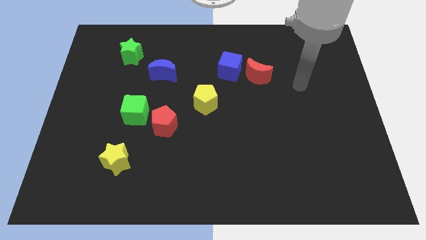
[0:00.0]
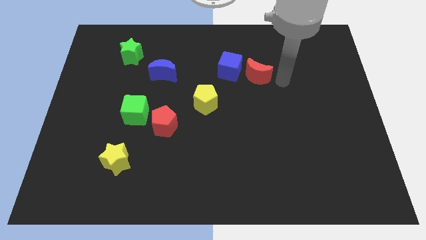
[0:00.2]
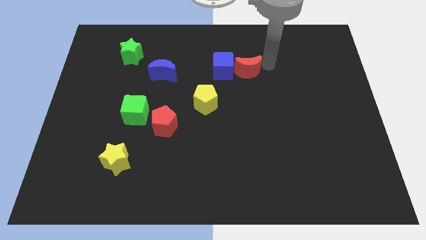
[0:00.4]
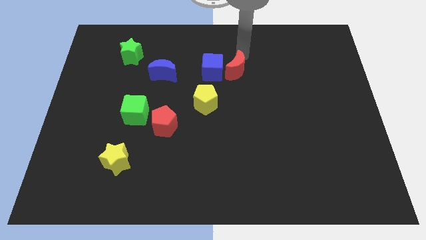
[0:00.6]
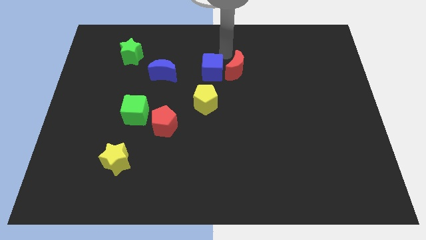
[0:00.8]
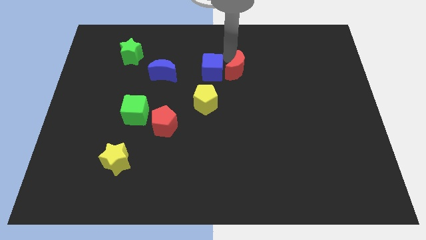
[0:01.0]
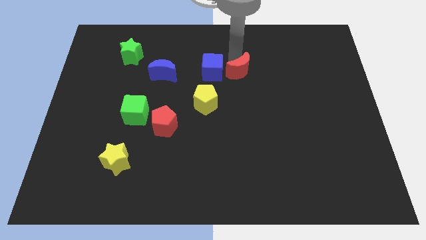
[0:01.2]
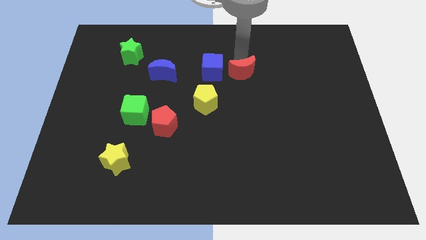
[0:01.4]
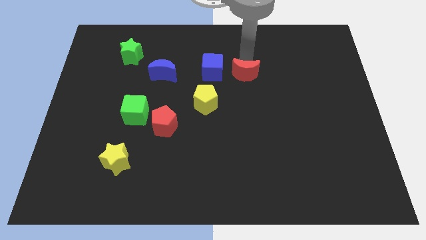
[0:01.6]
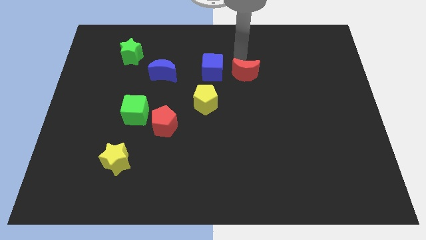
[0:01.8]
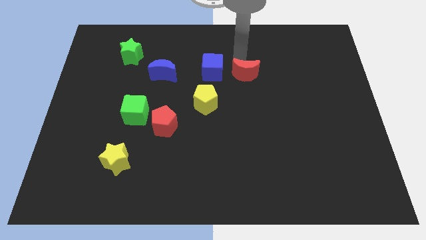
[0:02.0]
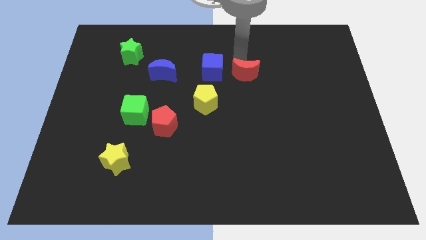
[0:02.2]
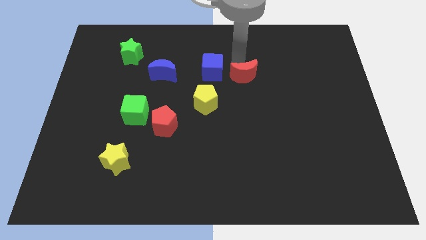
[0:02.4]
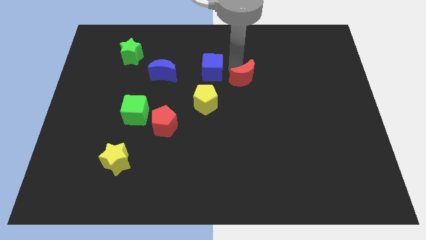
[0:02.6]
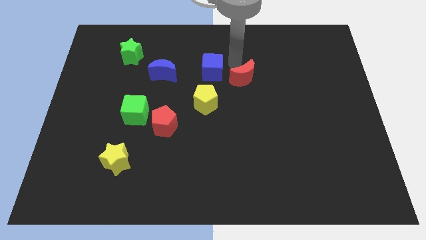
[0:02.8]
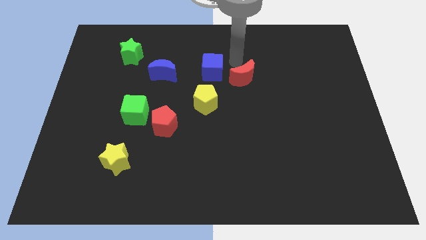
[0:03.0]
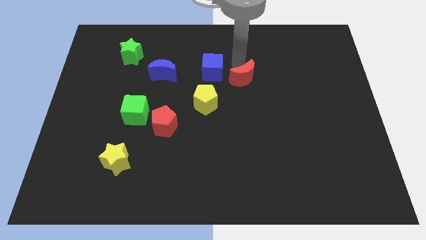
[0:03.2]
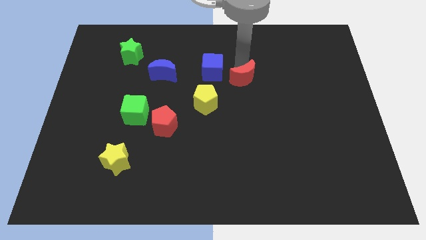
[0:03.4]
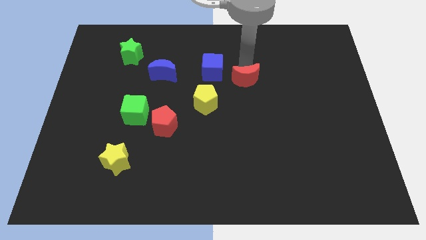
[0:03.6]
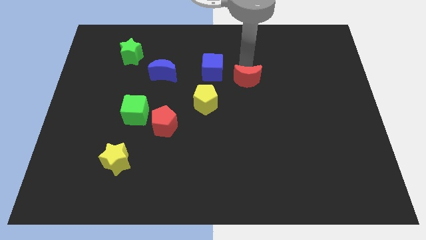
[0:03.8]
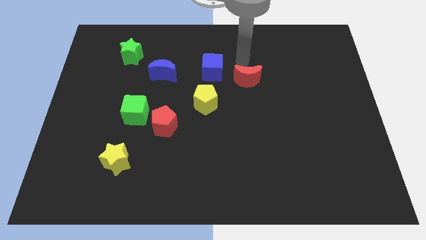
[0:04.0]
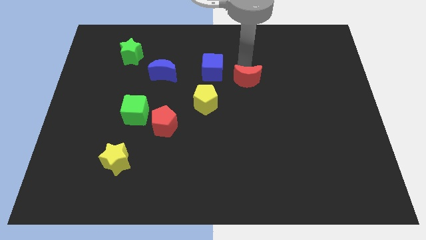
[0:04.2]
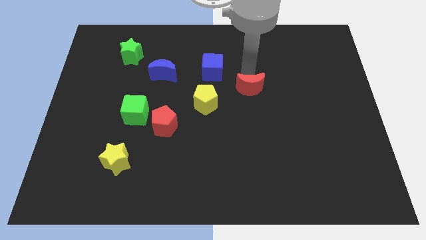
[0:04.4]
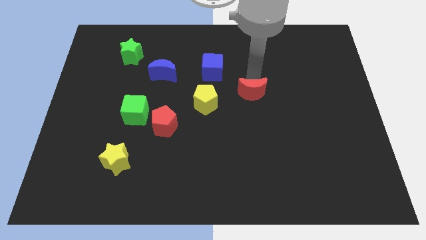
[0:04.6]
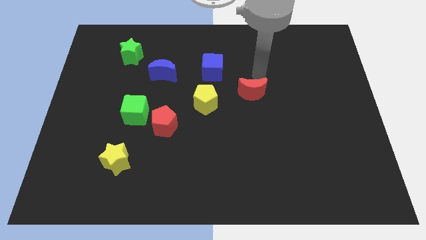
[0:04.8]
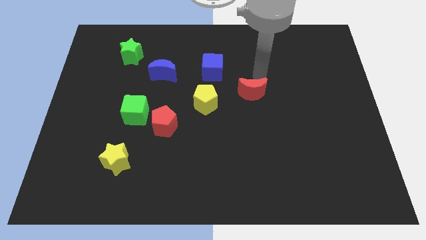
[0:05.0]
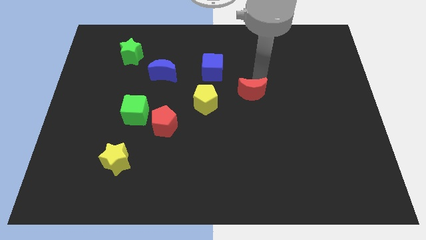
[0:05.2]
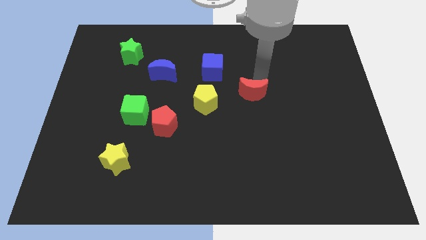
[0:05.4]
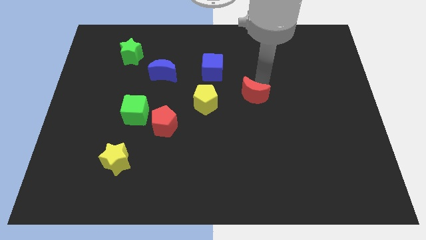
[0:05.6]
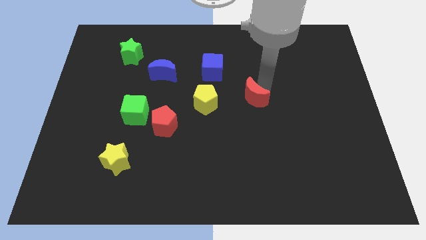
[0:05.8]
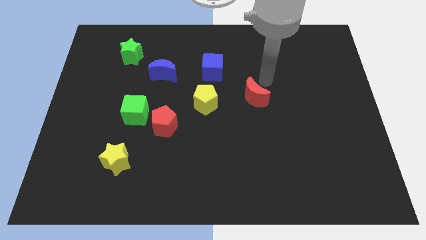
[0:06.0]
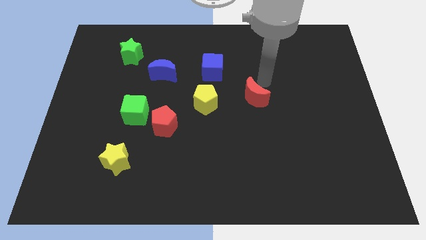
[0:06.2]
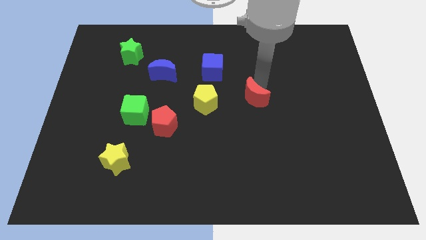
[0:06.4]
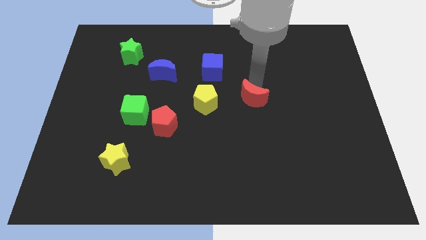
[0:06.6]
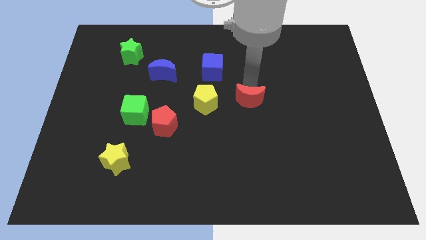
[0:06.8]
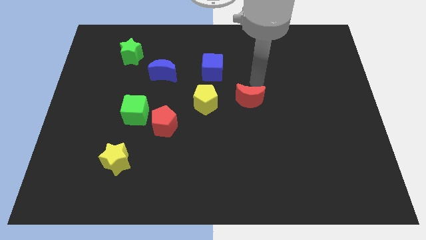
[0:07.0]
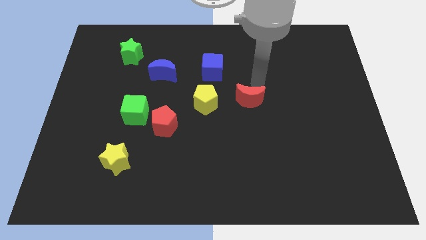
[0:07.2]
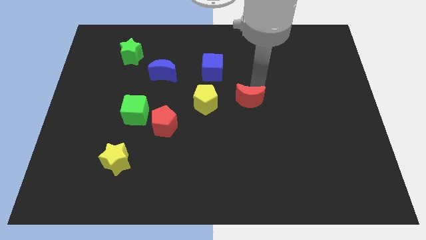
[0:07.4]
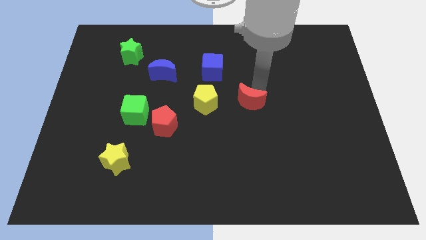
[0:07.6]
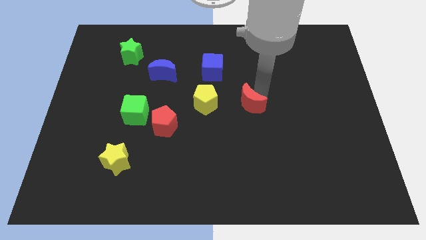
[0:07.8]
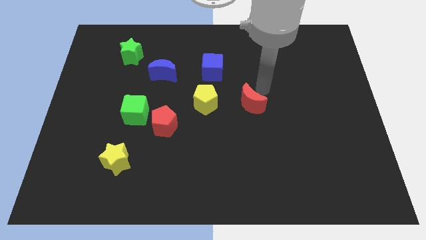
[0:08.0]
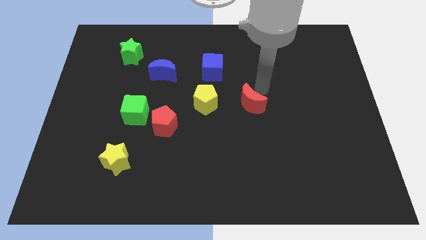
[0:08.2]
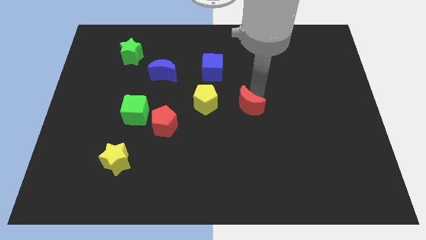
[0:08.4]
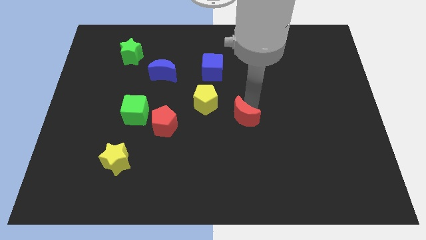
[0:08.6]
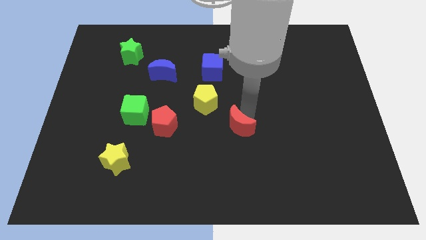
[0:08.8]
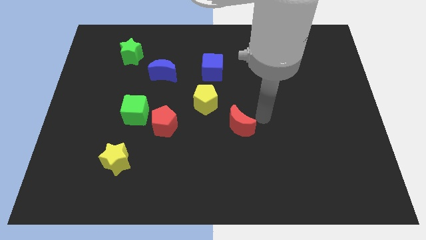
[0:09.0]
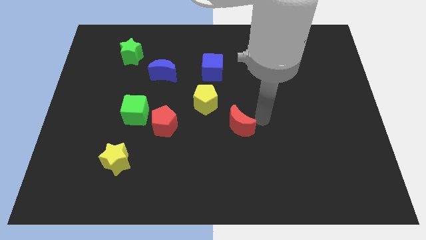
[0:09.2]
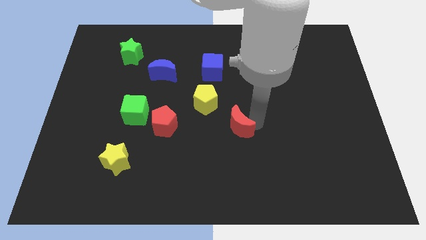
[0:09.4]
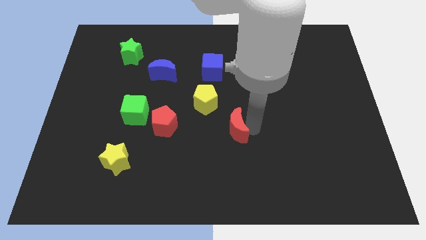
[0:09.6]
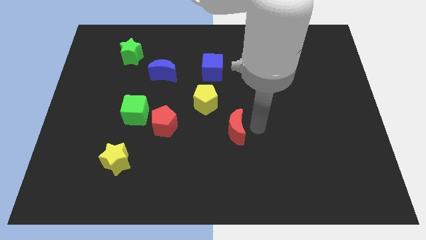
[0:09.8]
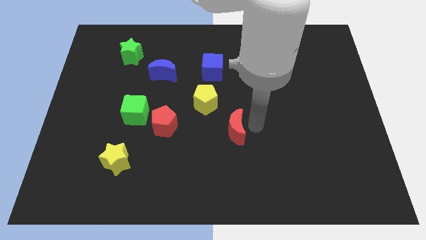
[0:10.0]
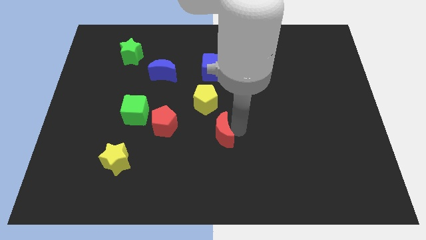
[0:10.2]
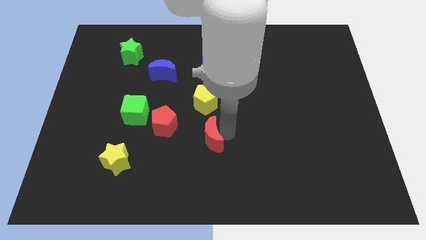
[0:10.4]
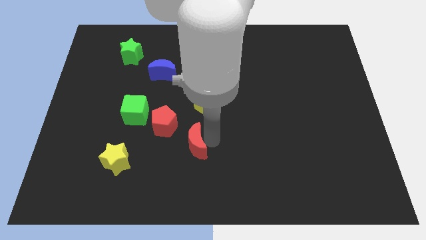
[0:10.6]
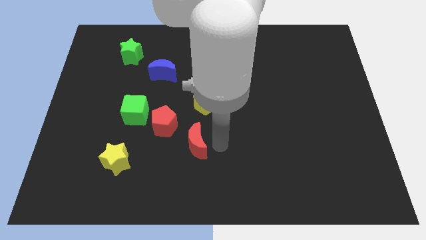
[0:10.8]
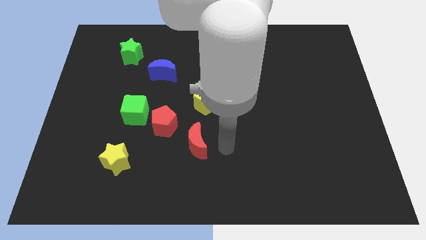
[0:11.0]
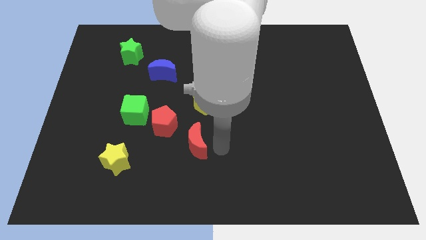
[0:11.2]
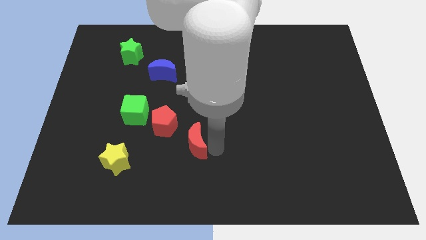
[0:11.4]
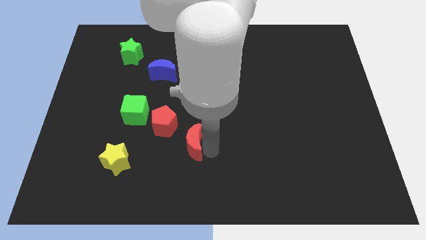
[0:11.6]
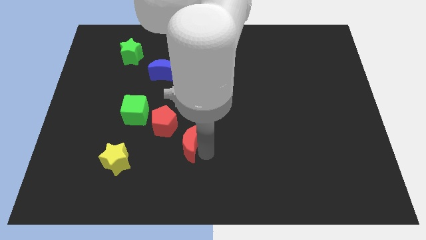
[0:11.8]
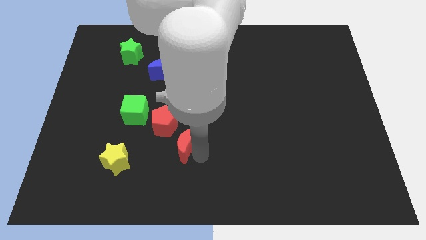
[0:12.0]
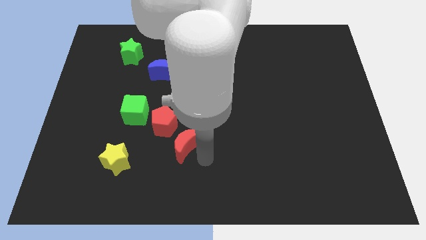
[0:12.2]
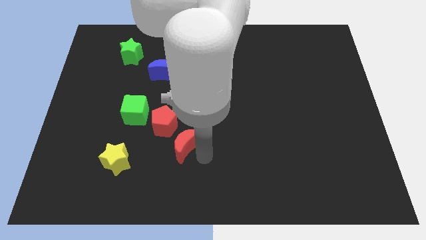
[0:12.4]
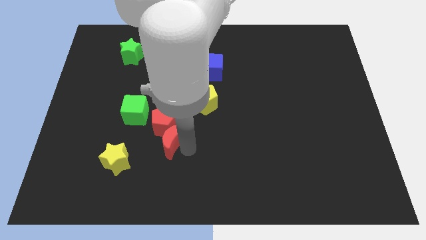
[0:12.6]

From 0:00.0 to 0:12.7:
put the red moon diagonally down and to the right of the green cube

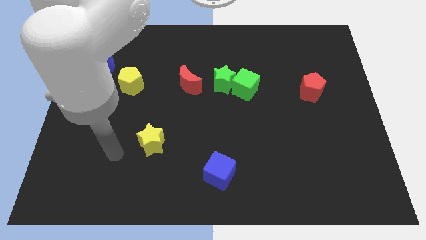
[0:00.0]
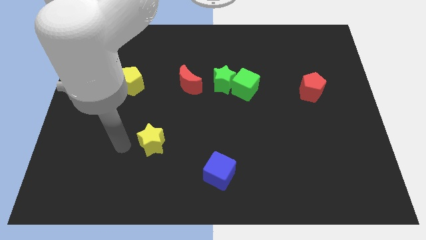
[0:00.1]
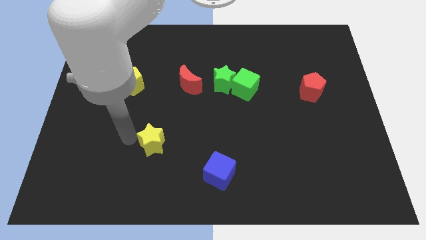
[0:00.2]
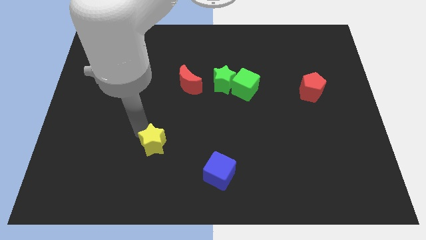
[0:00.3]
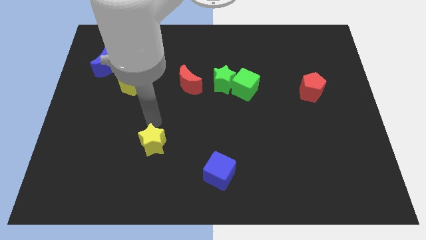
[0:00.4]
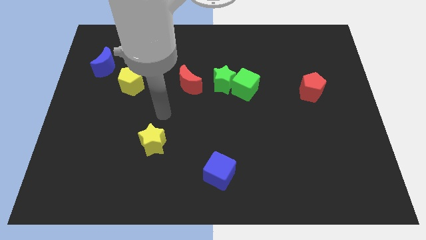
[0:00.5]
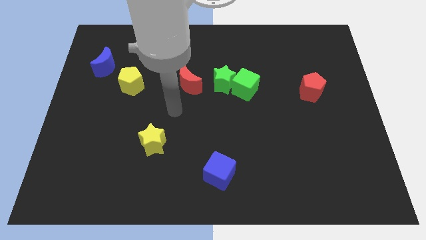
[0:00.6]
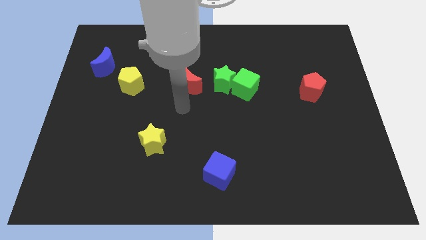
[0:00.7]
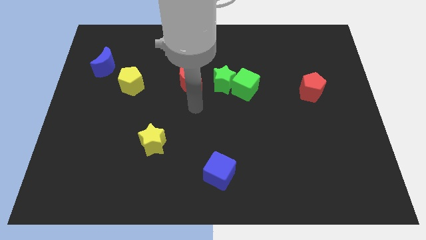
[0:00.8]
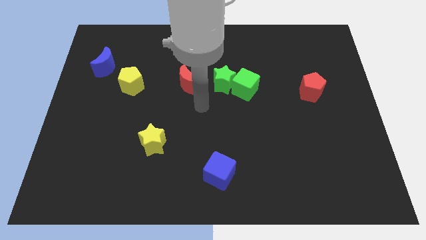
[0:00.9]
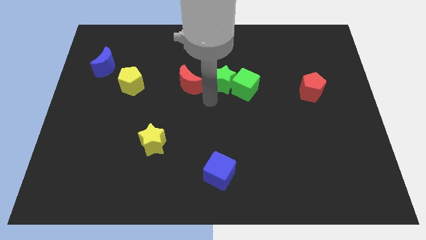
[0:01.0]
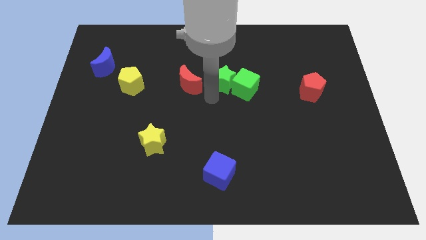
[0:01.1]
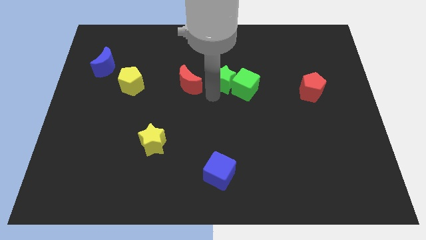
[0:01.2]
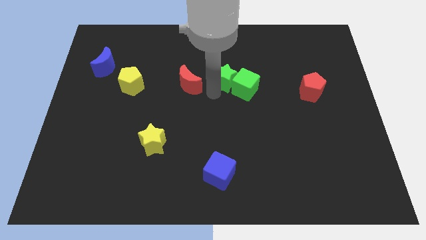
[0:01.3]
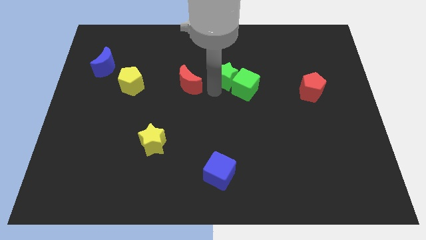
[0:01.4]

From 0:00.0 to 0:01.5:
slide the green star above the green cube
